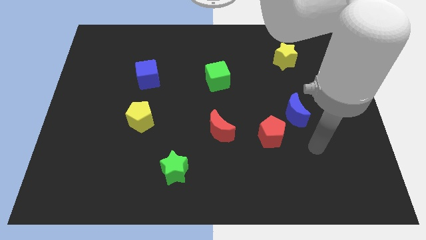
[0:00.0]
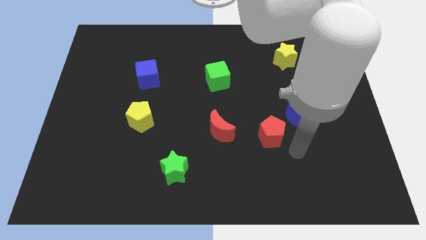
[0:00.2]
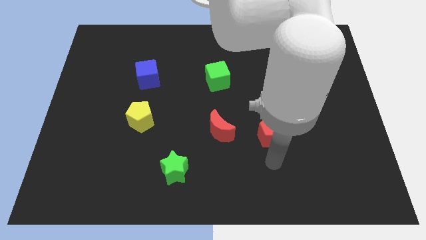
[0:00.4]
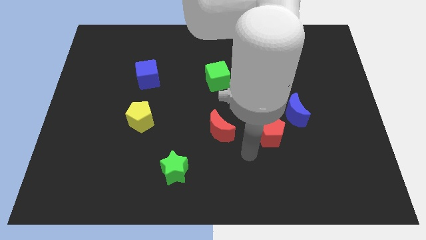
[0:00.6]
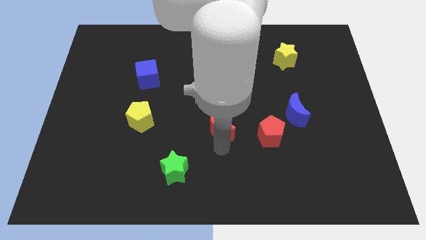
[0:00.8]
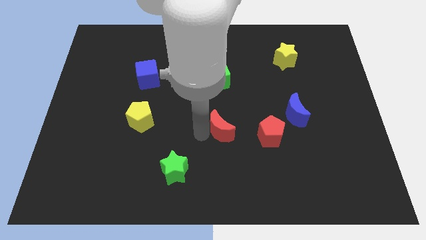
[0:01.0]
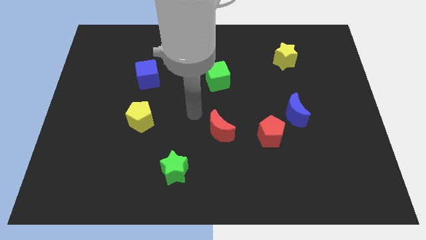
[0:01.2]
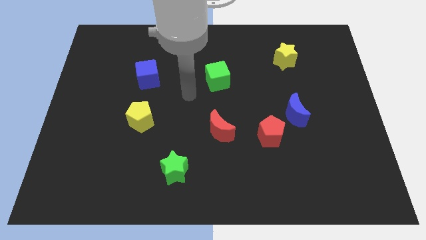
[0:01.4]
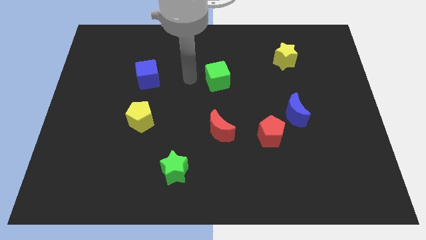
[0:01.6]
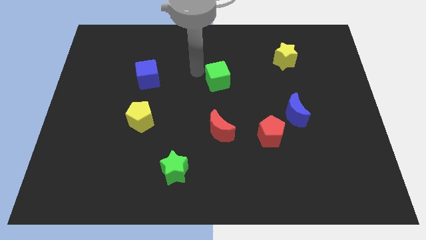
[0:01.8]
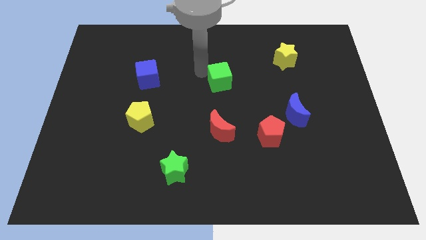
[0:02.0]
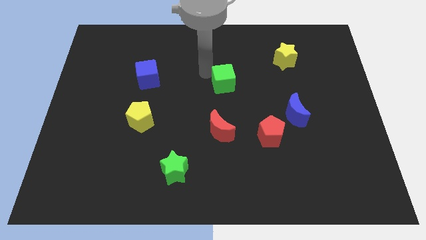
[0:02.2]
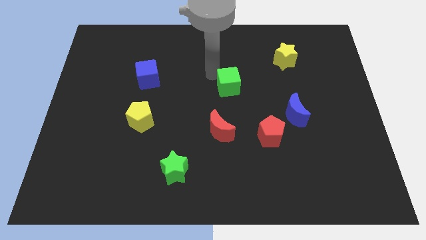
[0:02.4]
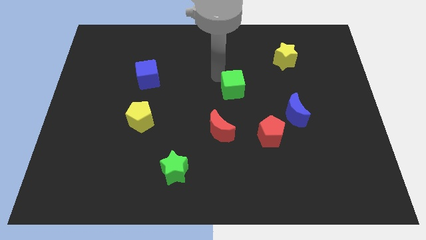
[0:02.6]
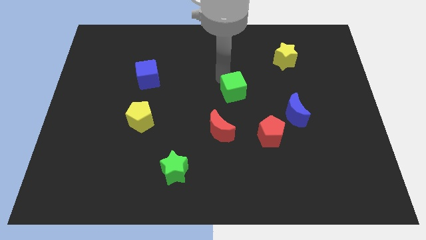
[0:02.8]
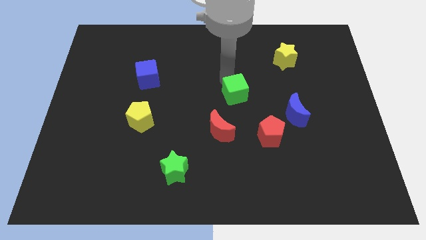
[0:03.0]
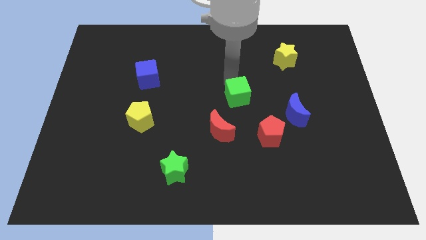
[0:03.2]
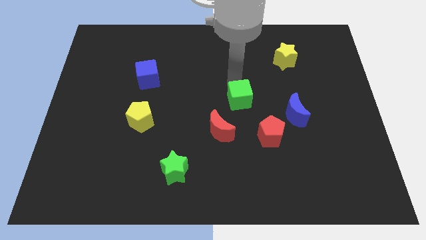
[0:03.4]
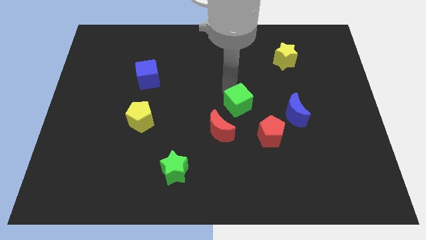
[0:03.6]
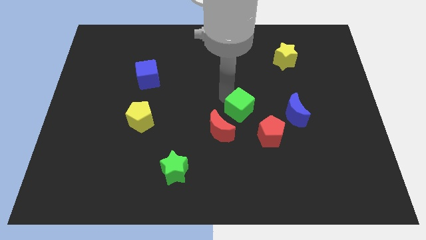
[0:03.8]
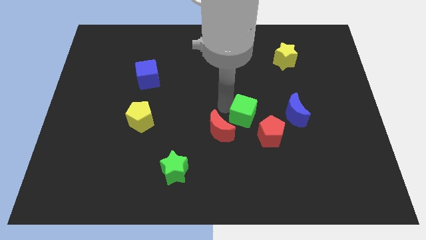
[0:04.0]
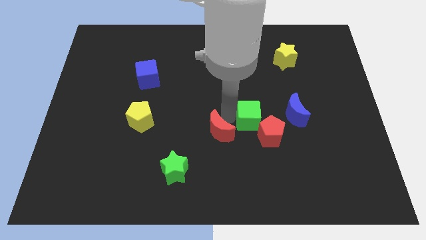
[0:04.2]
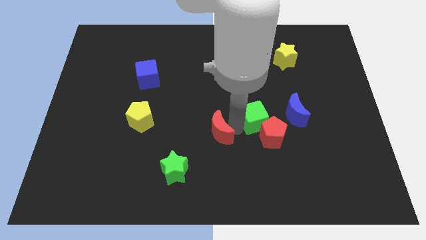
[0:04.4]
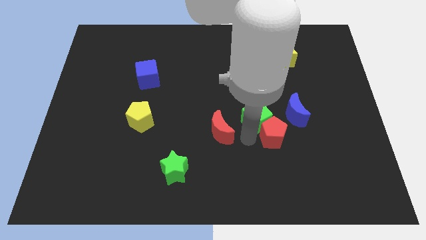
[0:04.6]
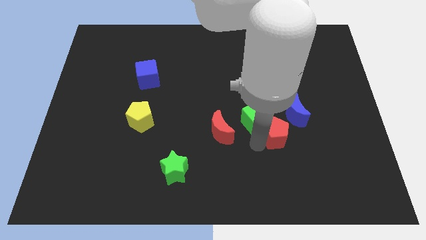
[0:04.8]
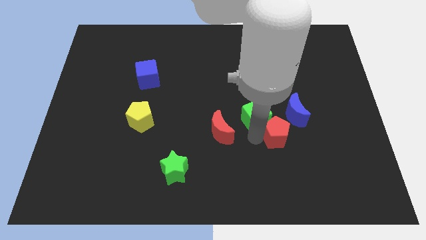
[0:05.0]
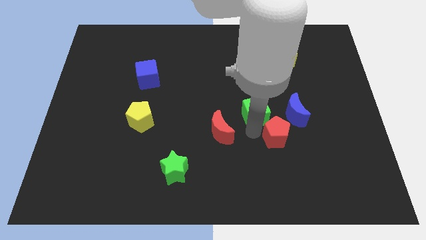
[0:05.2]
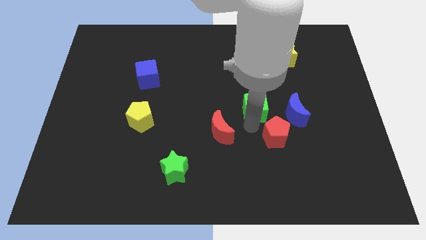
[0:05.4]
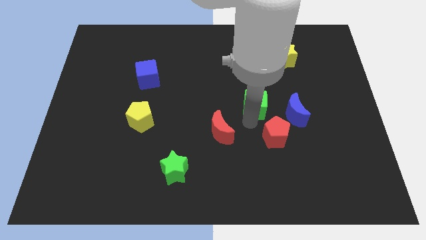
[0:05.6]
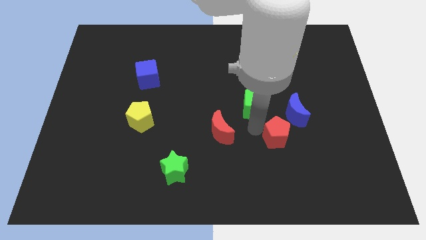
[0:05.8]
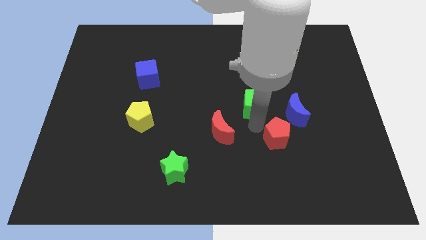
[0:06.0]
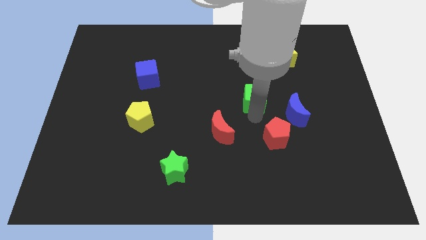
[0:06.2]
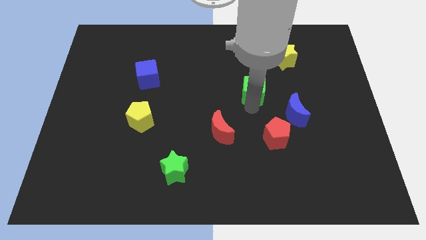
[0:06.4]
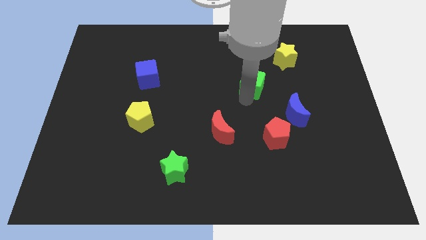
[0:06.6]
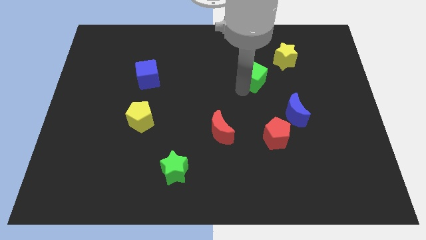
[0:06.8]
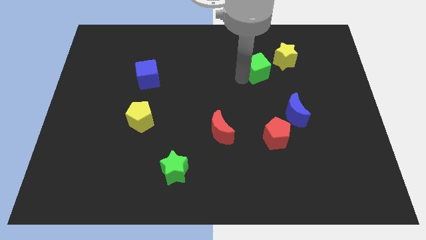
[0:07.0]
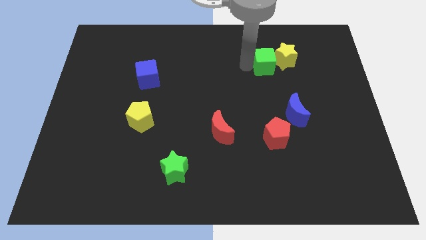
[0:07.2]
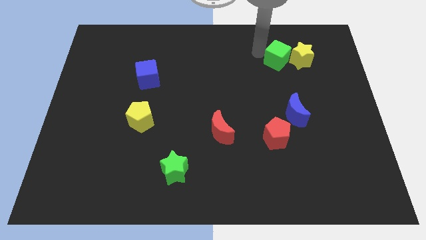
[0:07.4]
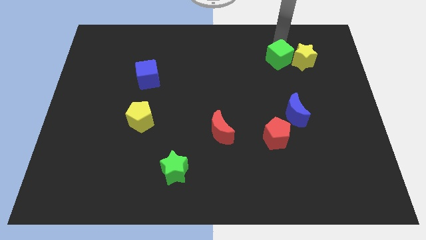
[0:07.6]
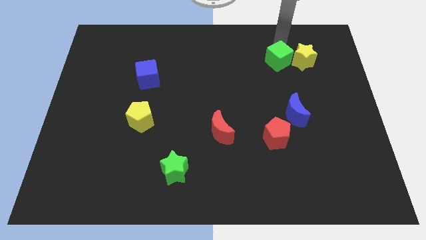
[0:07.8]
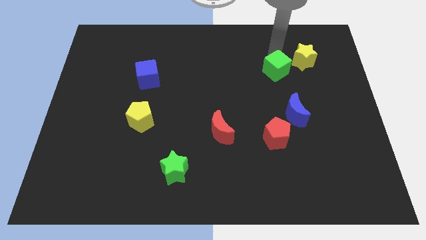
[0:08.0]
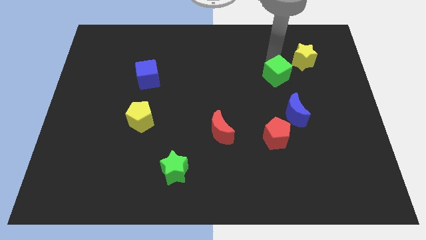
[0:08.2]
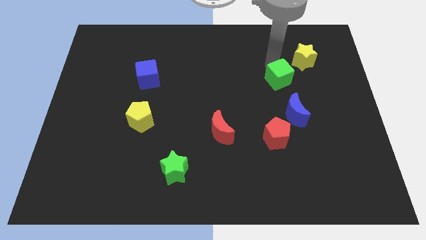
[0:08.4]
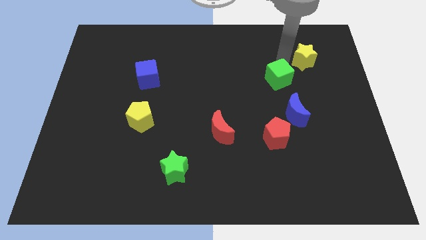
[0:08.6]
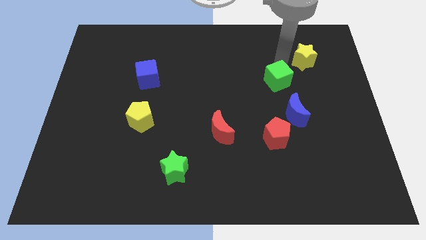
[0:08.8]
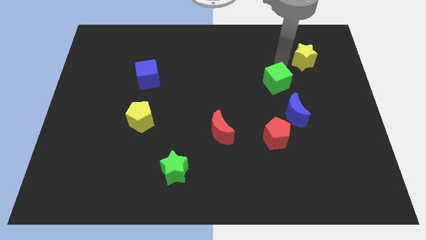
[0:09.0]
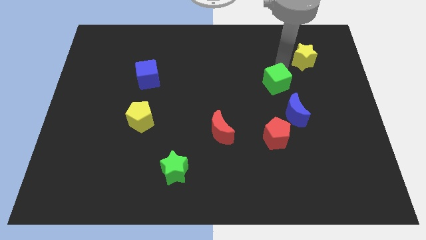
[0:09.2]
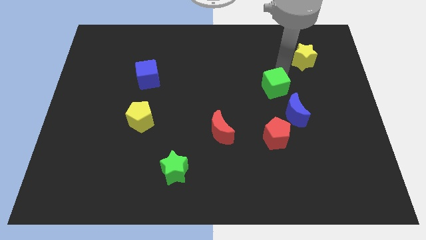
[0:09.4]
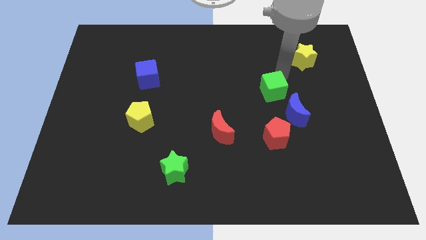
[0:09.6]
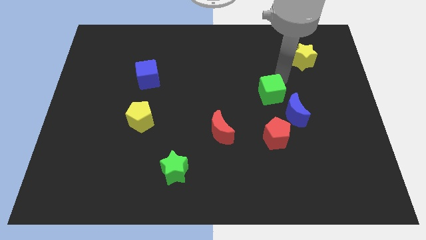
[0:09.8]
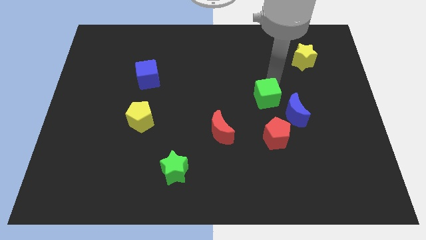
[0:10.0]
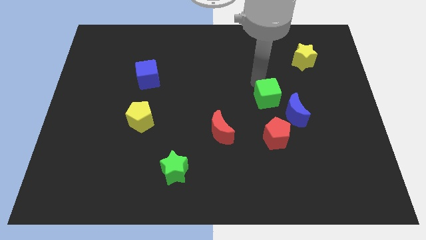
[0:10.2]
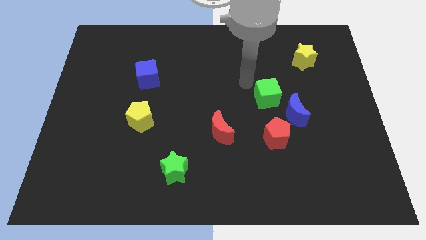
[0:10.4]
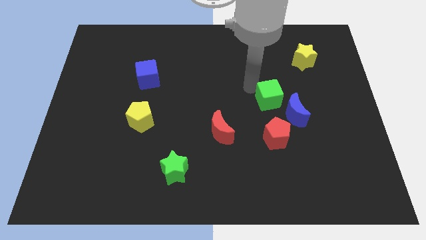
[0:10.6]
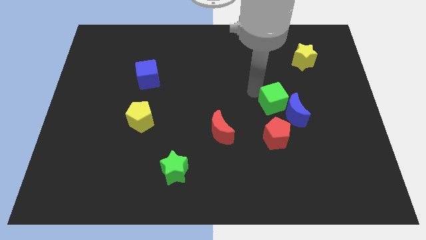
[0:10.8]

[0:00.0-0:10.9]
slide the green cube close to the blue moon

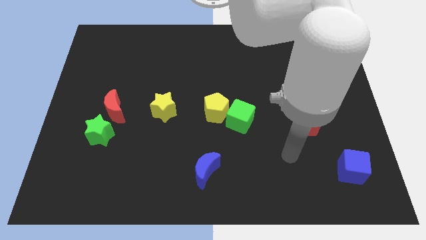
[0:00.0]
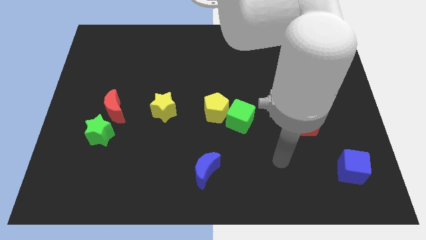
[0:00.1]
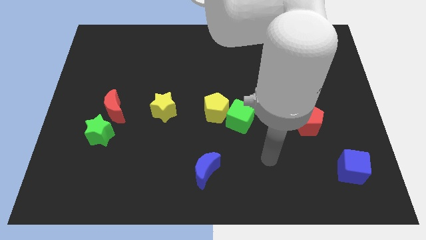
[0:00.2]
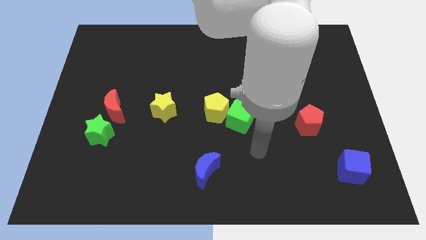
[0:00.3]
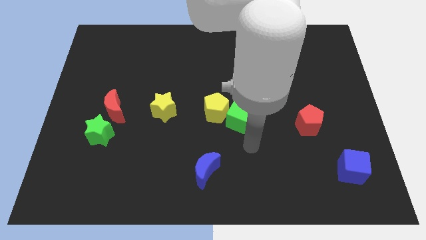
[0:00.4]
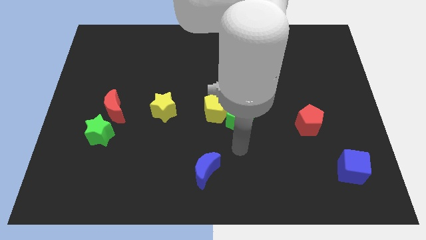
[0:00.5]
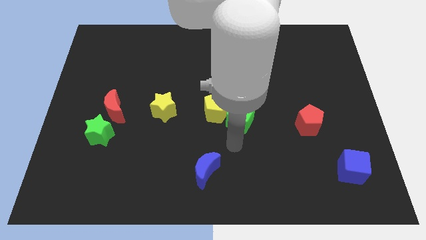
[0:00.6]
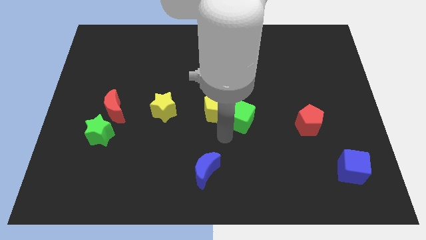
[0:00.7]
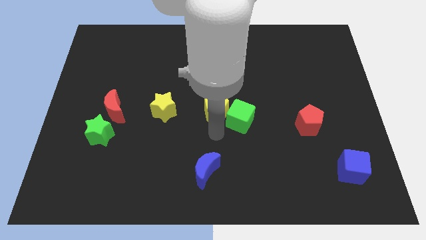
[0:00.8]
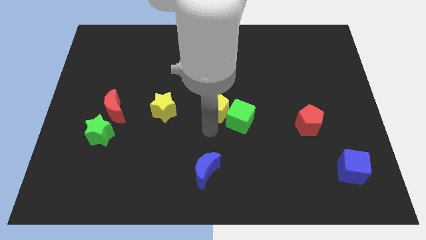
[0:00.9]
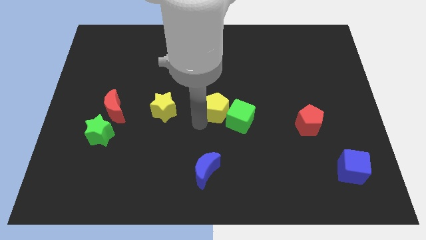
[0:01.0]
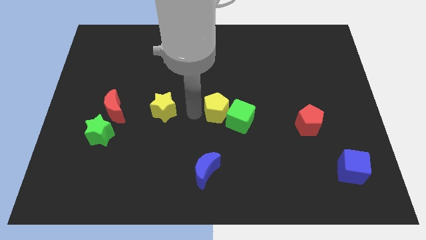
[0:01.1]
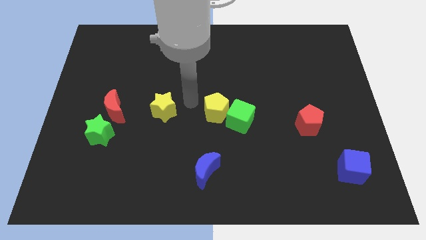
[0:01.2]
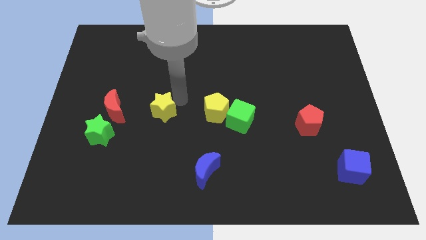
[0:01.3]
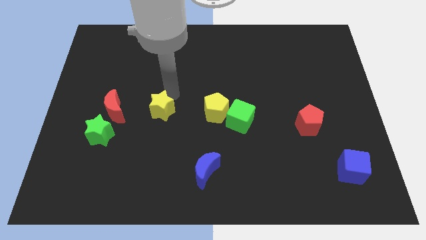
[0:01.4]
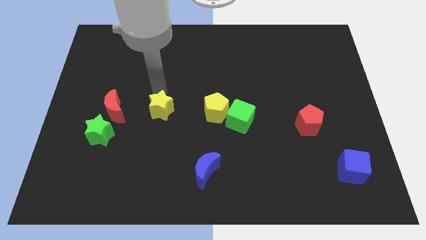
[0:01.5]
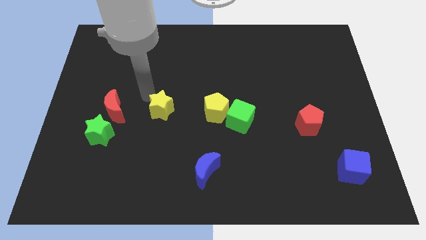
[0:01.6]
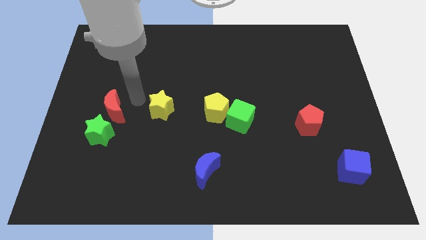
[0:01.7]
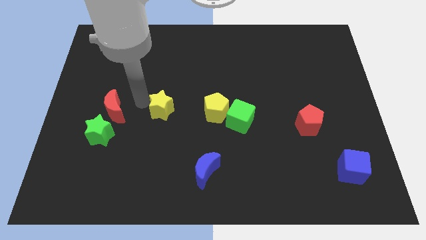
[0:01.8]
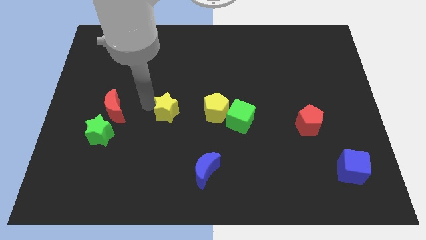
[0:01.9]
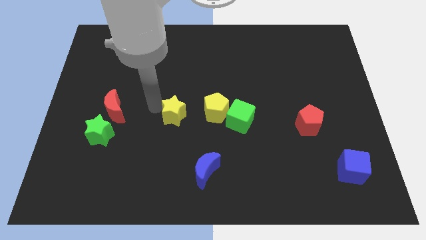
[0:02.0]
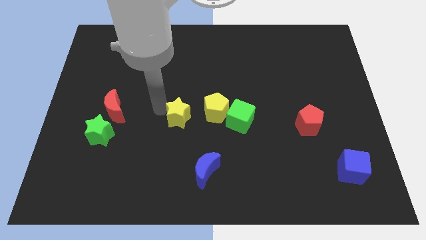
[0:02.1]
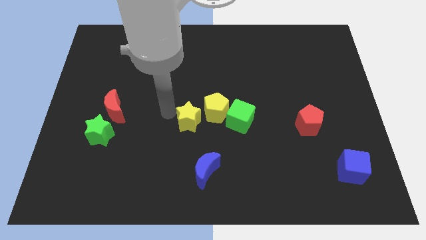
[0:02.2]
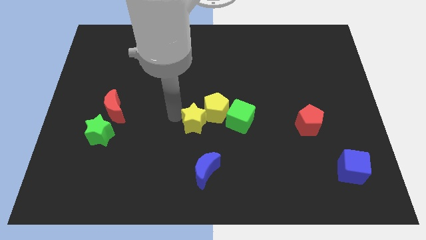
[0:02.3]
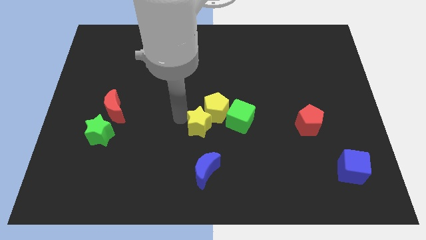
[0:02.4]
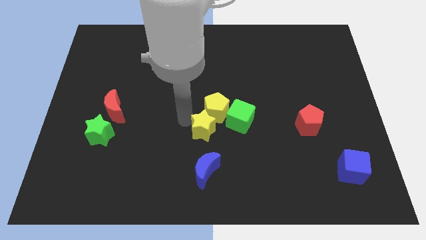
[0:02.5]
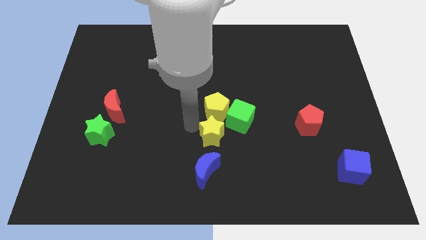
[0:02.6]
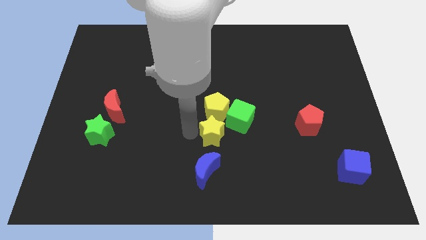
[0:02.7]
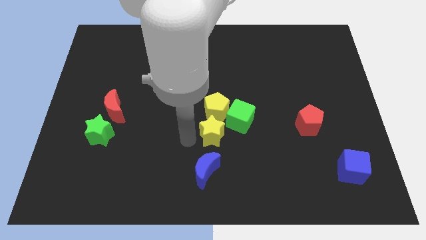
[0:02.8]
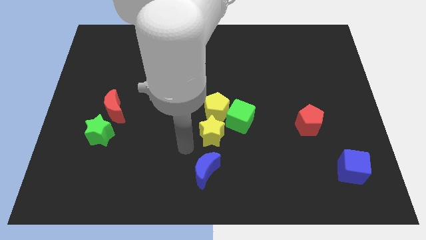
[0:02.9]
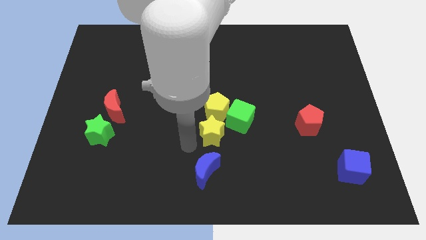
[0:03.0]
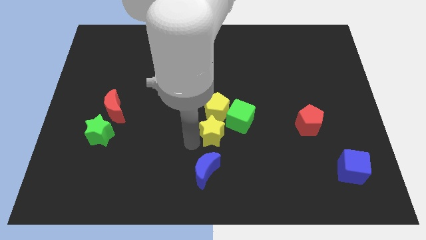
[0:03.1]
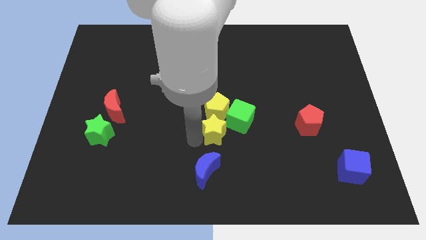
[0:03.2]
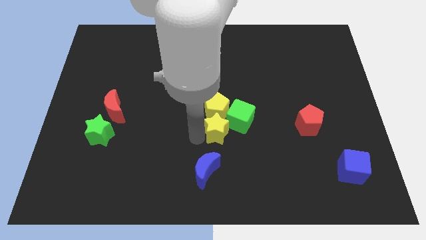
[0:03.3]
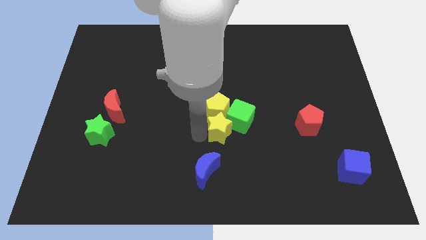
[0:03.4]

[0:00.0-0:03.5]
slide the yellow star to the green cube
